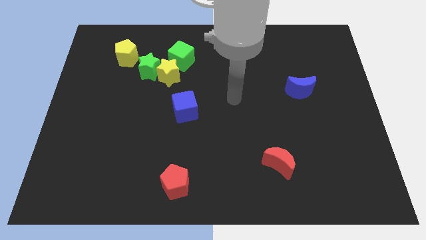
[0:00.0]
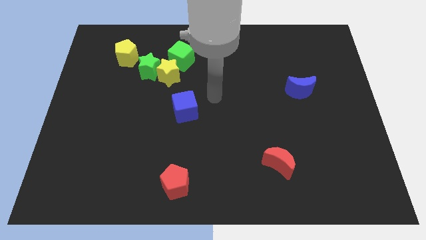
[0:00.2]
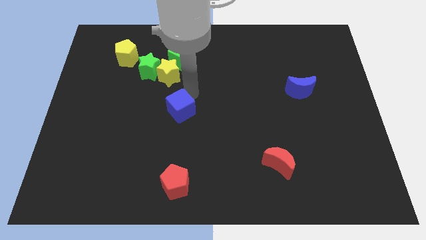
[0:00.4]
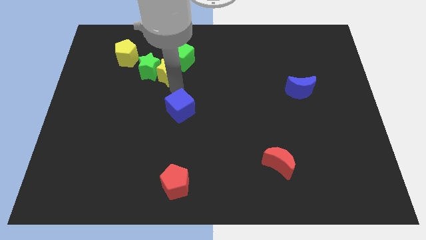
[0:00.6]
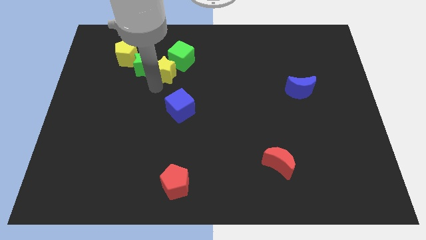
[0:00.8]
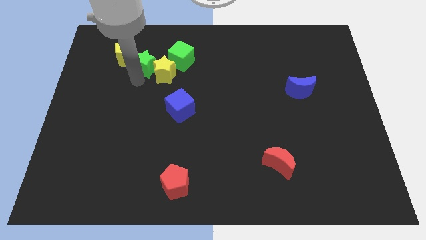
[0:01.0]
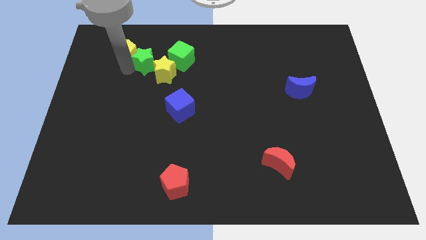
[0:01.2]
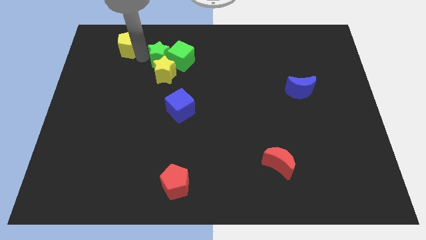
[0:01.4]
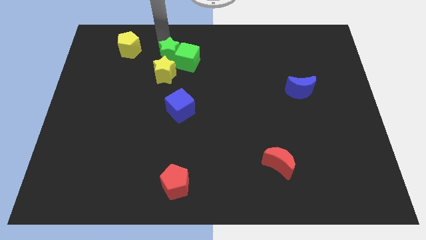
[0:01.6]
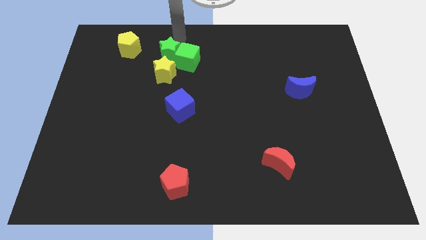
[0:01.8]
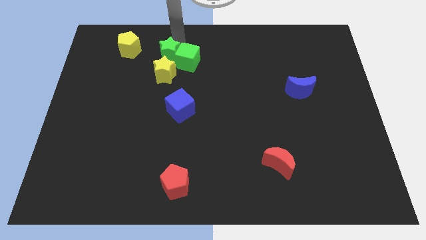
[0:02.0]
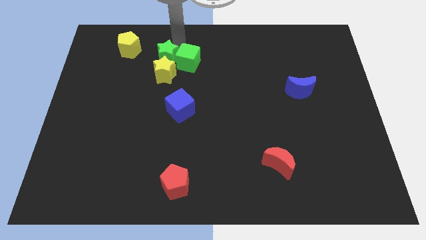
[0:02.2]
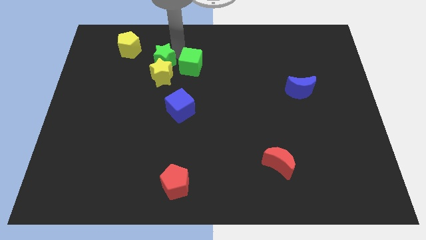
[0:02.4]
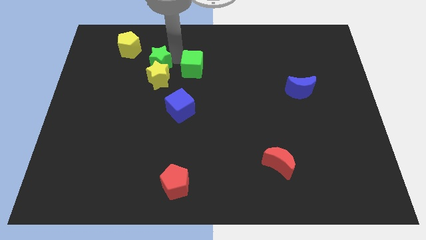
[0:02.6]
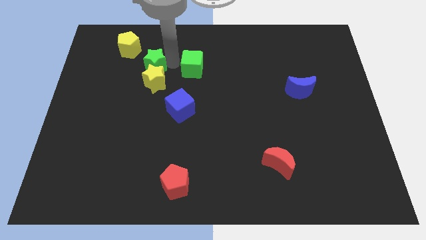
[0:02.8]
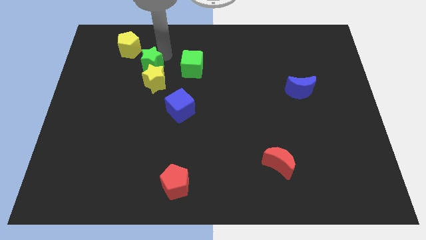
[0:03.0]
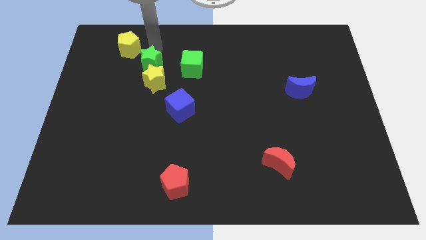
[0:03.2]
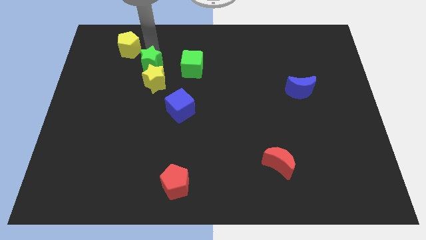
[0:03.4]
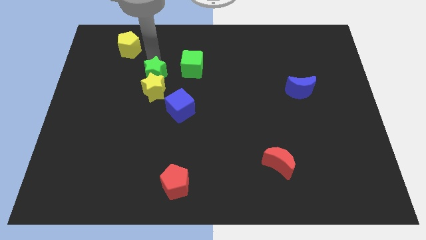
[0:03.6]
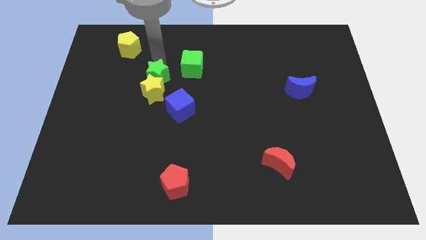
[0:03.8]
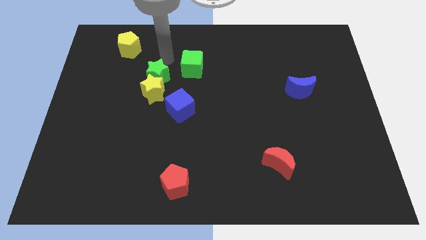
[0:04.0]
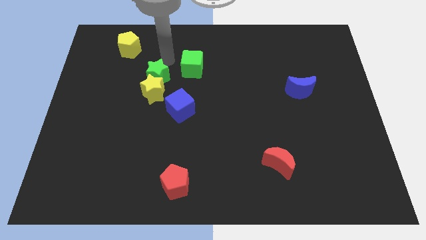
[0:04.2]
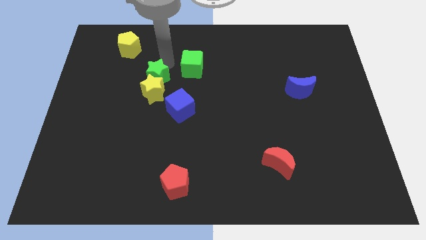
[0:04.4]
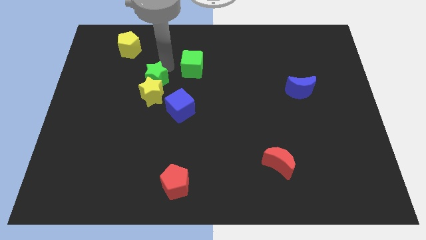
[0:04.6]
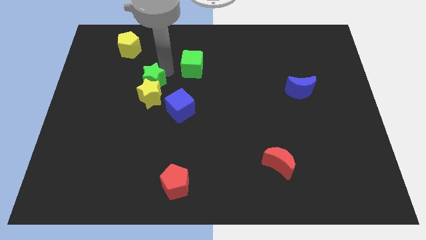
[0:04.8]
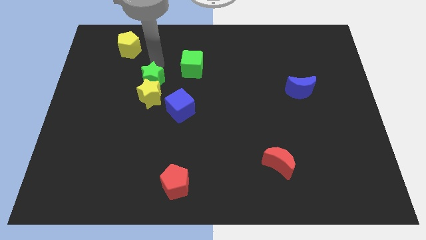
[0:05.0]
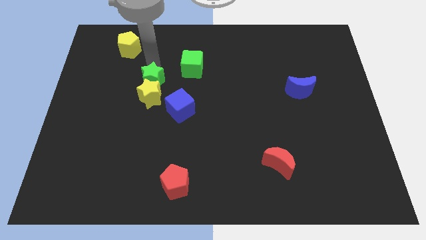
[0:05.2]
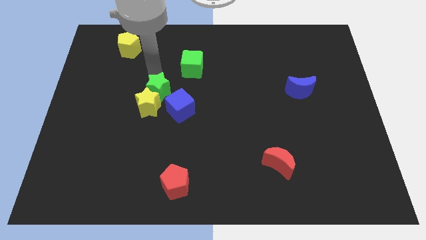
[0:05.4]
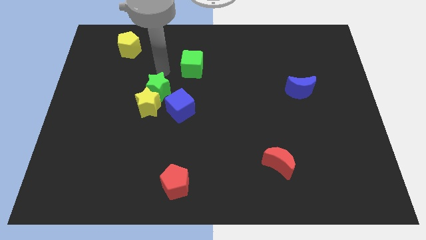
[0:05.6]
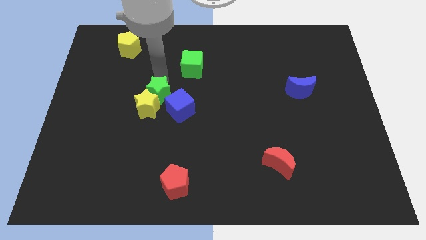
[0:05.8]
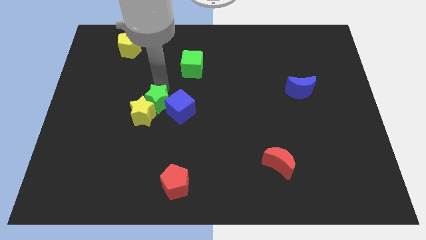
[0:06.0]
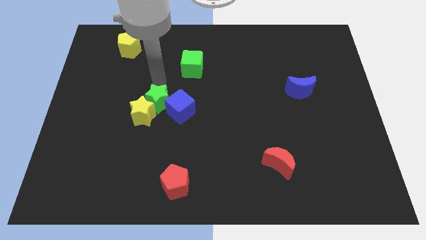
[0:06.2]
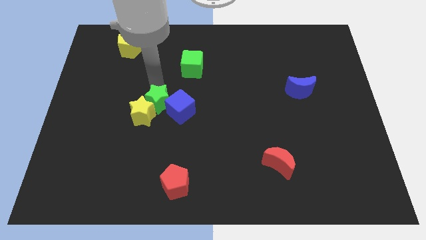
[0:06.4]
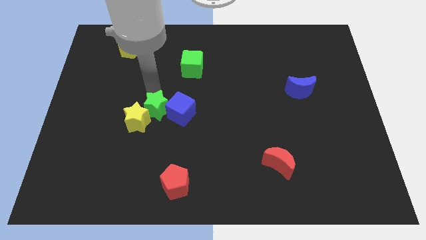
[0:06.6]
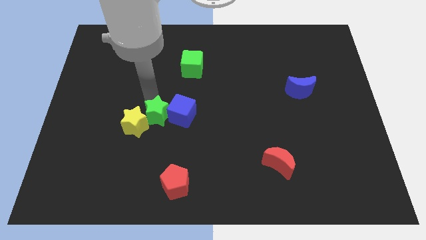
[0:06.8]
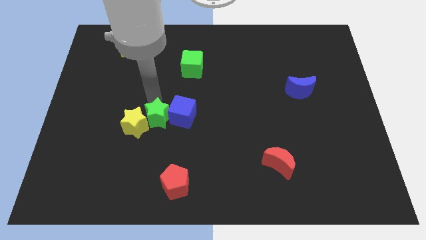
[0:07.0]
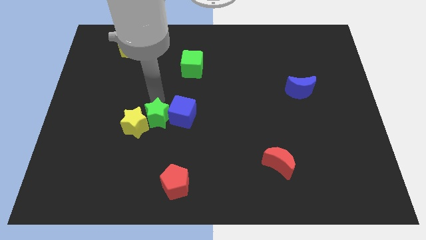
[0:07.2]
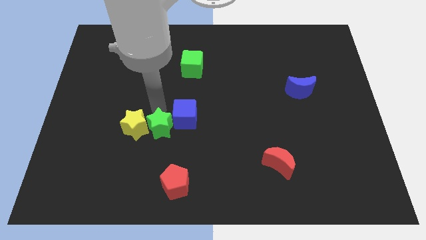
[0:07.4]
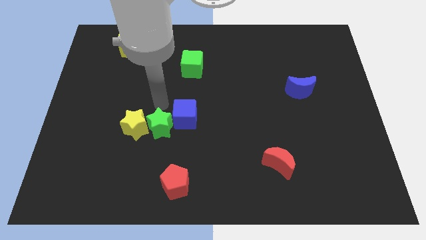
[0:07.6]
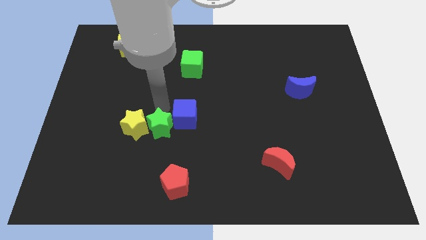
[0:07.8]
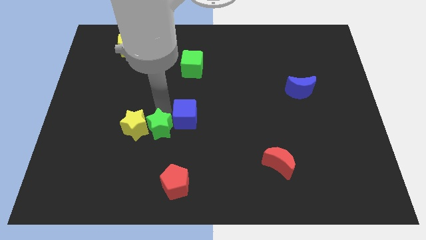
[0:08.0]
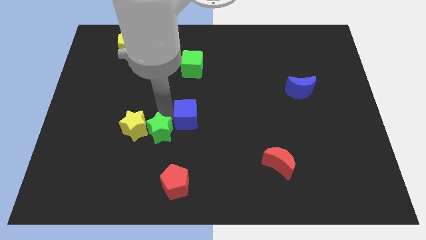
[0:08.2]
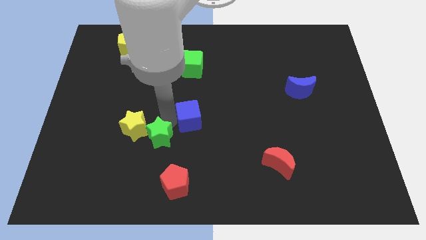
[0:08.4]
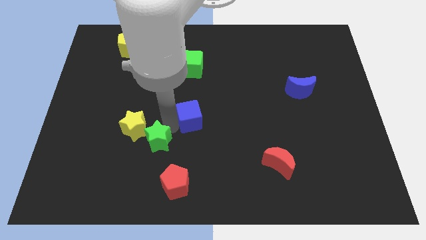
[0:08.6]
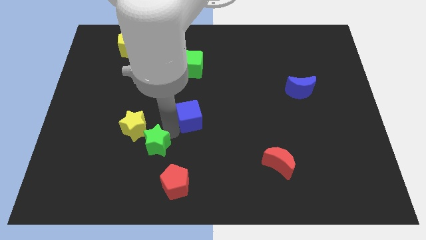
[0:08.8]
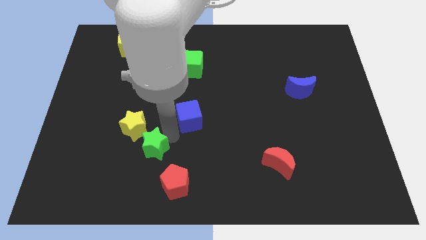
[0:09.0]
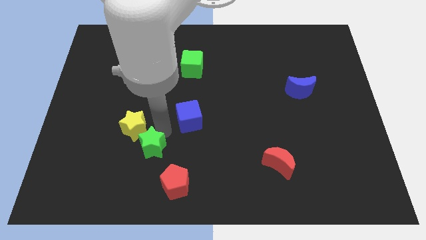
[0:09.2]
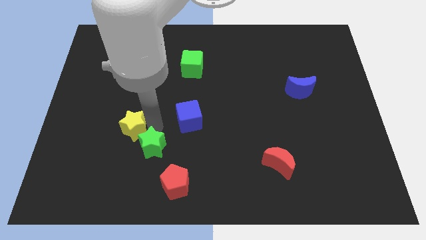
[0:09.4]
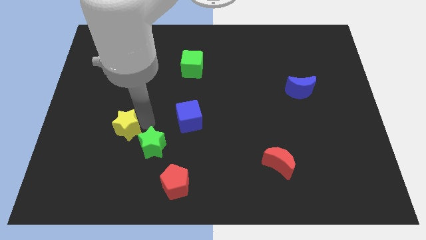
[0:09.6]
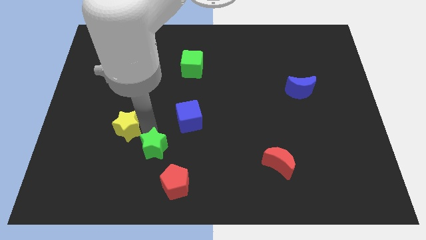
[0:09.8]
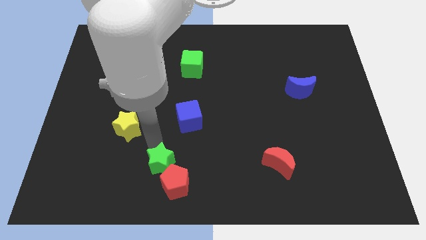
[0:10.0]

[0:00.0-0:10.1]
push the green star next to the red pentagon

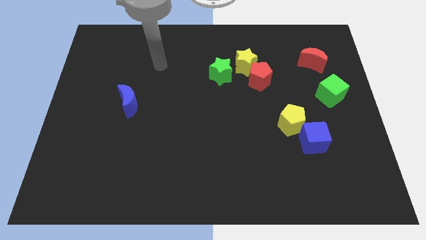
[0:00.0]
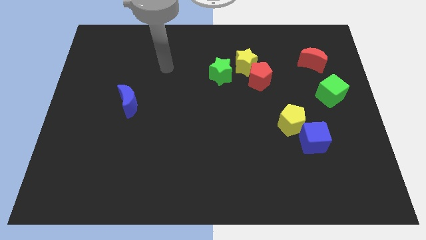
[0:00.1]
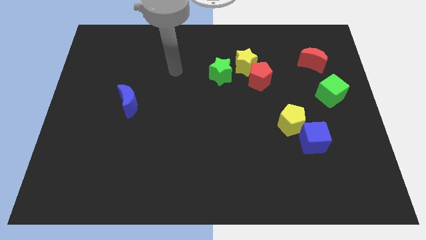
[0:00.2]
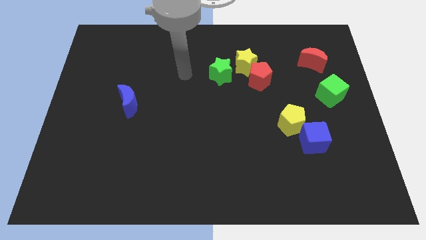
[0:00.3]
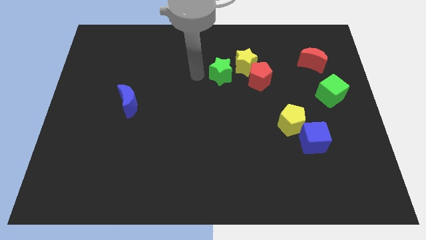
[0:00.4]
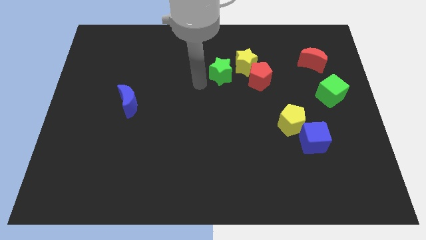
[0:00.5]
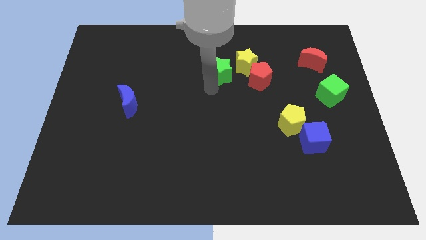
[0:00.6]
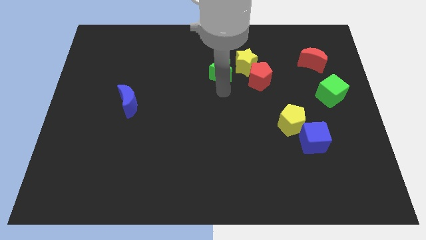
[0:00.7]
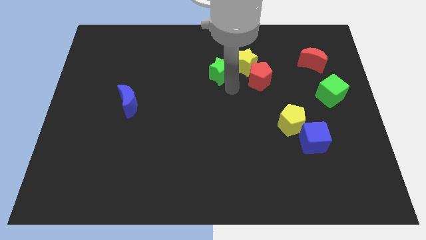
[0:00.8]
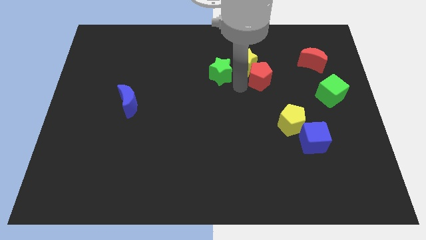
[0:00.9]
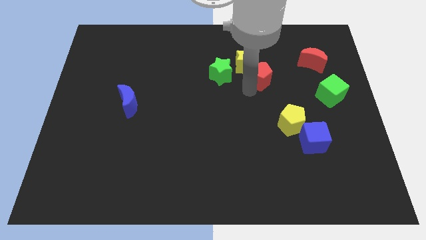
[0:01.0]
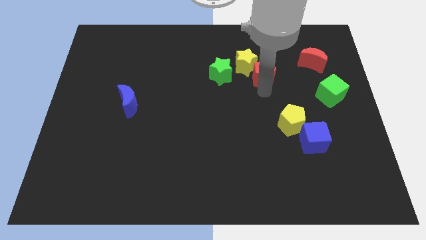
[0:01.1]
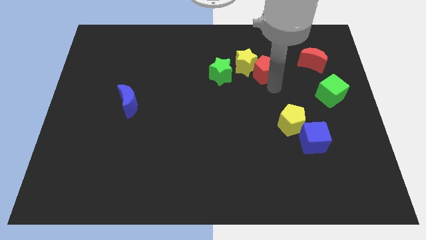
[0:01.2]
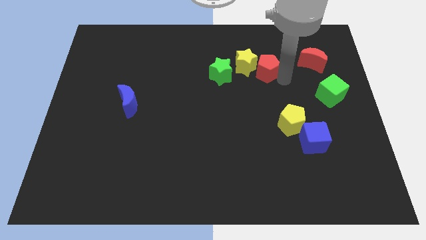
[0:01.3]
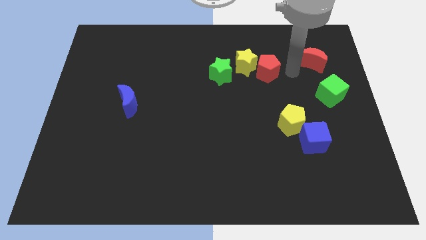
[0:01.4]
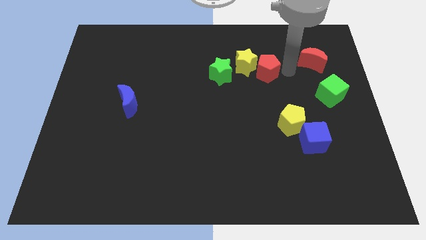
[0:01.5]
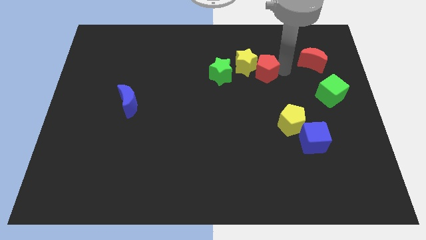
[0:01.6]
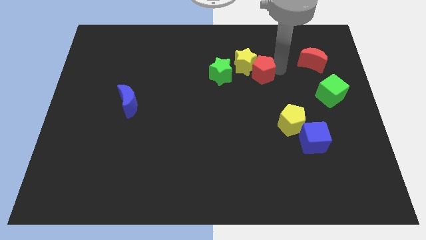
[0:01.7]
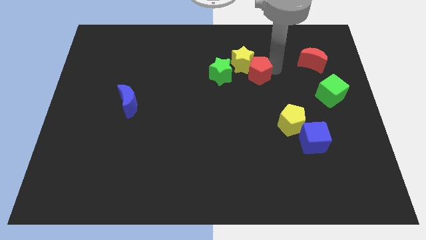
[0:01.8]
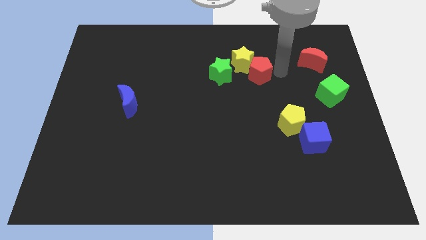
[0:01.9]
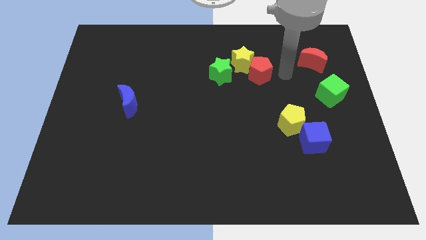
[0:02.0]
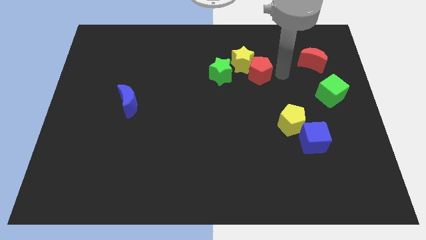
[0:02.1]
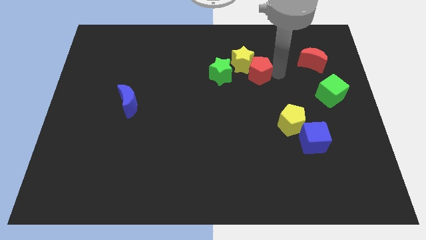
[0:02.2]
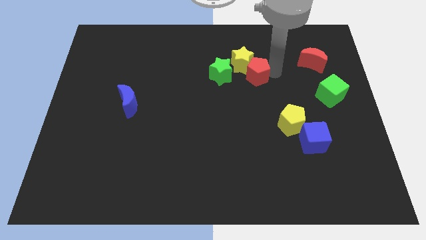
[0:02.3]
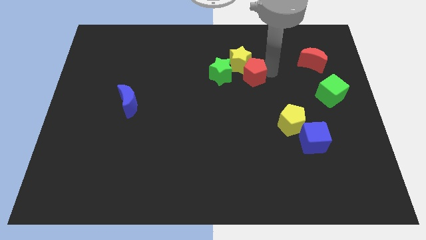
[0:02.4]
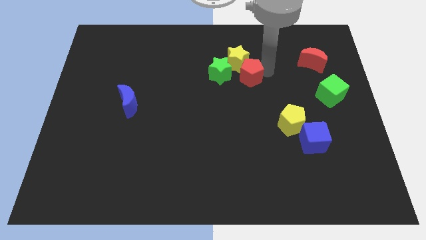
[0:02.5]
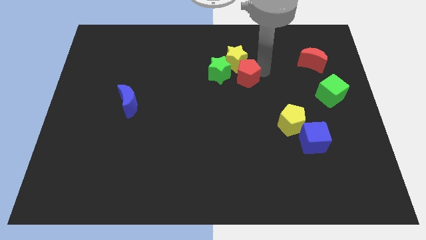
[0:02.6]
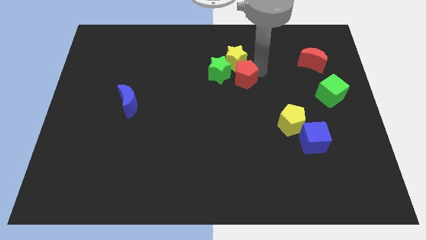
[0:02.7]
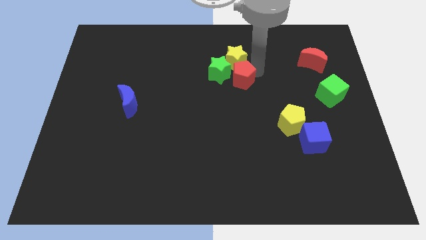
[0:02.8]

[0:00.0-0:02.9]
move the red pentagon towards the green star
